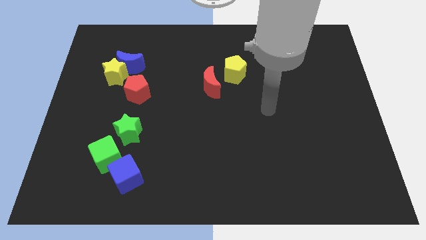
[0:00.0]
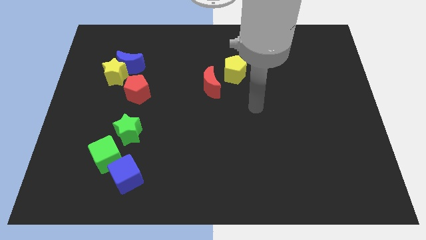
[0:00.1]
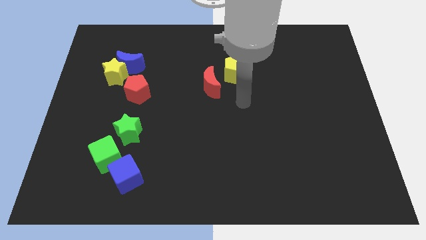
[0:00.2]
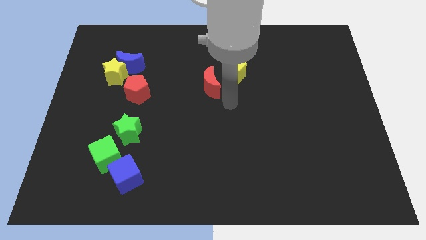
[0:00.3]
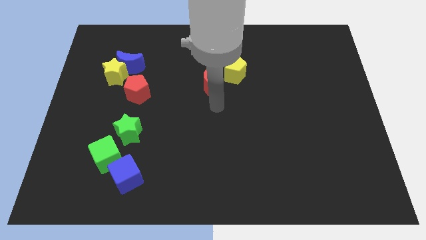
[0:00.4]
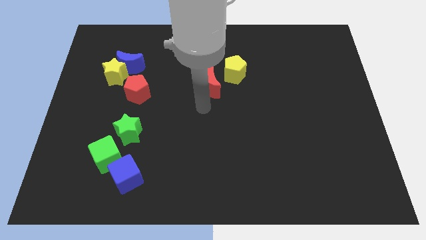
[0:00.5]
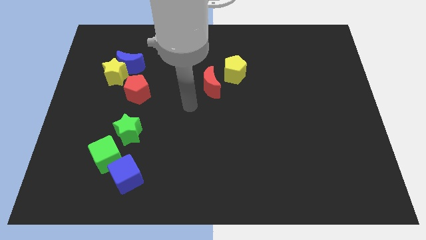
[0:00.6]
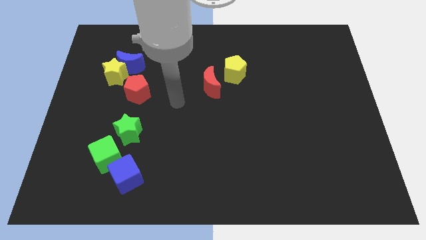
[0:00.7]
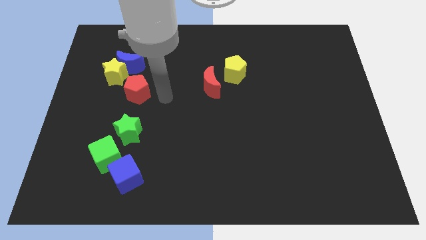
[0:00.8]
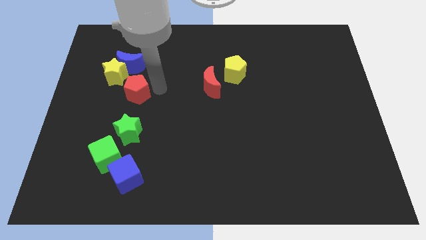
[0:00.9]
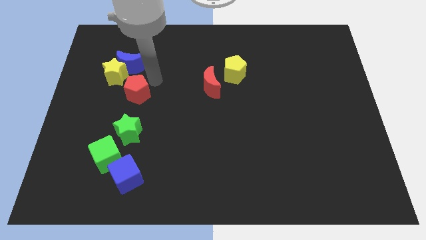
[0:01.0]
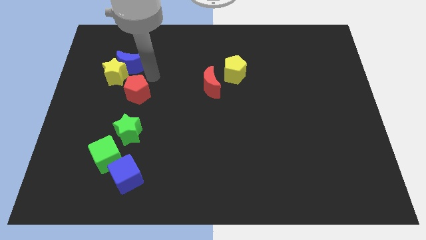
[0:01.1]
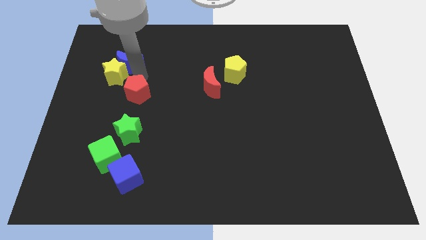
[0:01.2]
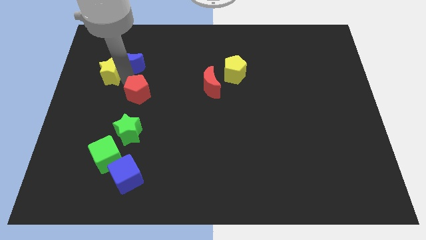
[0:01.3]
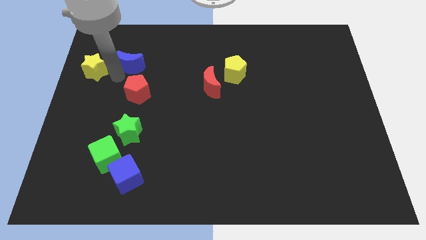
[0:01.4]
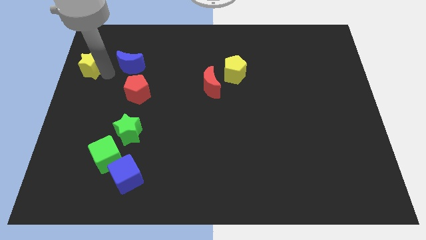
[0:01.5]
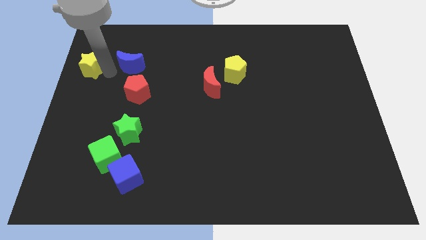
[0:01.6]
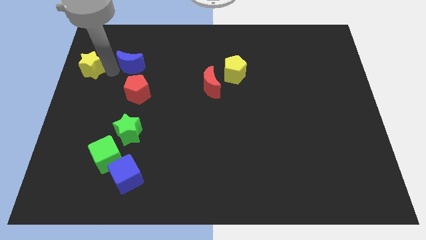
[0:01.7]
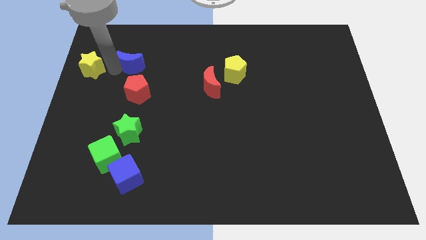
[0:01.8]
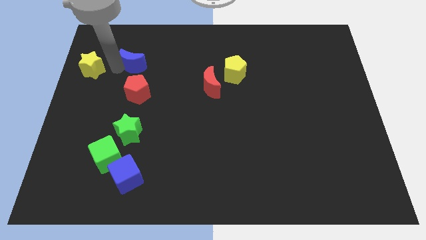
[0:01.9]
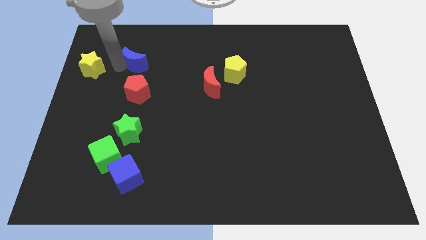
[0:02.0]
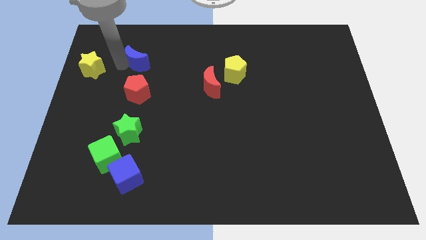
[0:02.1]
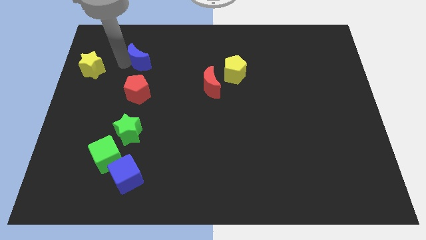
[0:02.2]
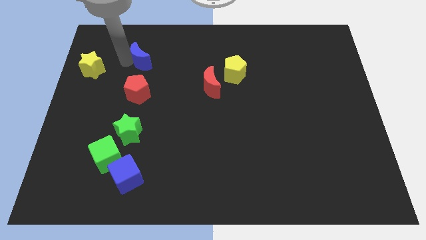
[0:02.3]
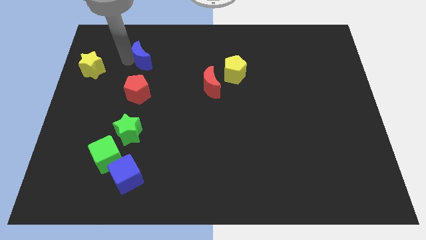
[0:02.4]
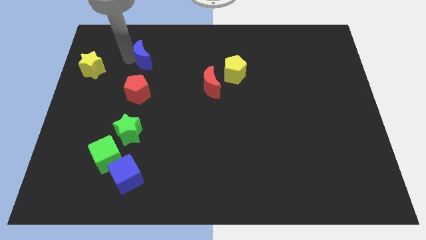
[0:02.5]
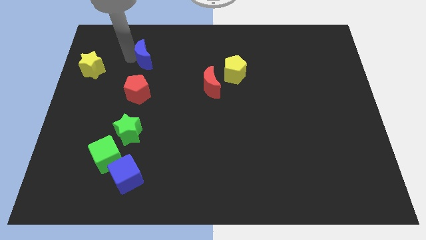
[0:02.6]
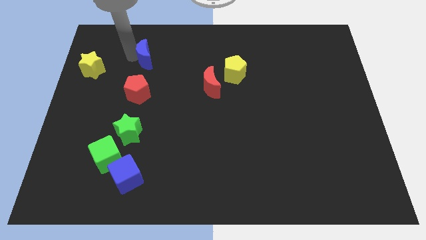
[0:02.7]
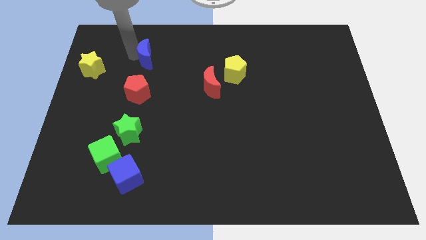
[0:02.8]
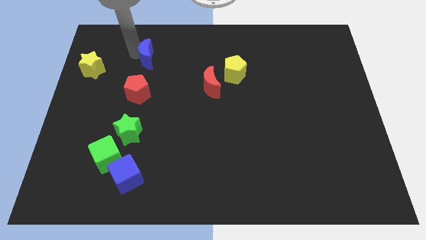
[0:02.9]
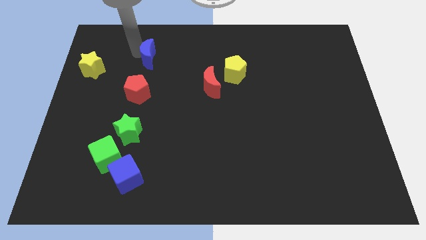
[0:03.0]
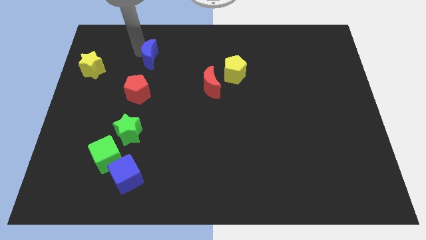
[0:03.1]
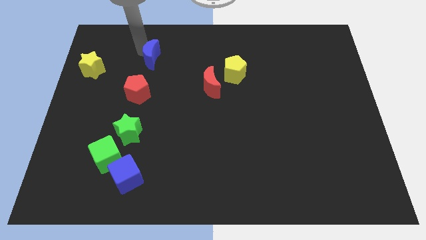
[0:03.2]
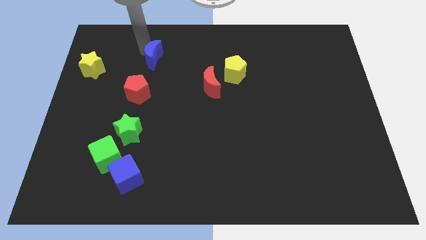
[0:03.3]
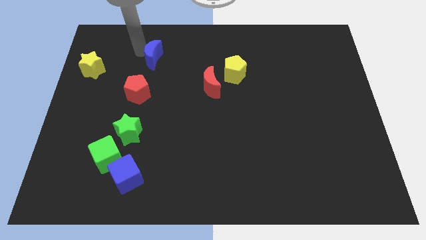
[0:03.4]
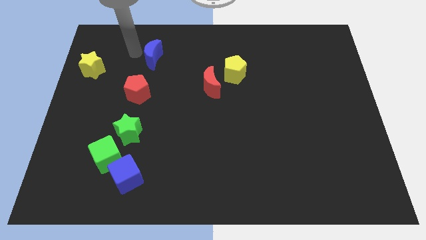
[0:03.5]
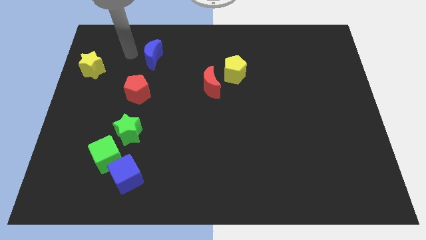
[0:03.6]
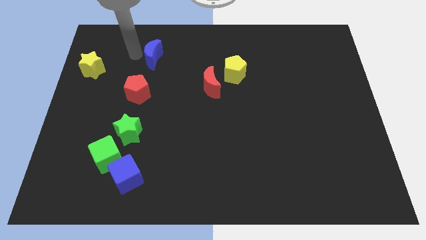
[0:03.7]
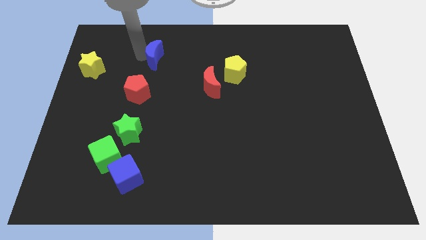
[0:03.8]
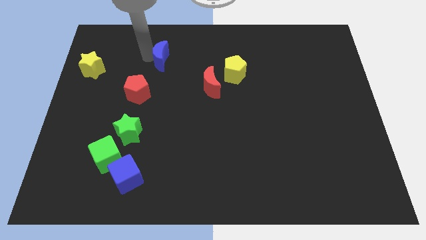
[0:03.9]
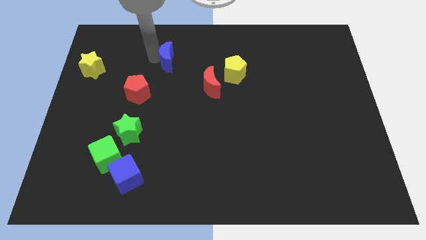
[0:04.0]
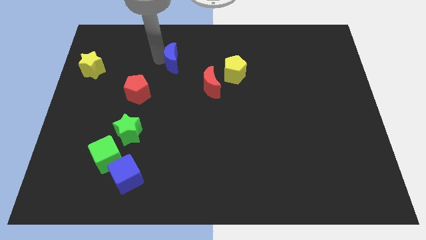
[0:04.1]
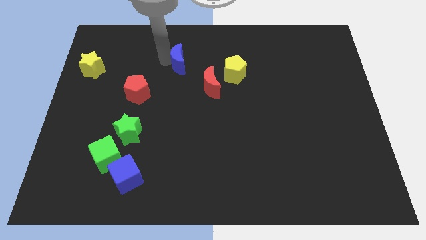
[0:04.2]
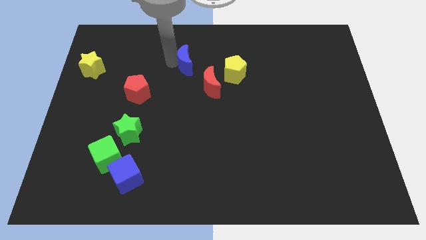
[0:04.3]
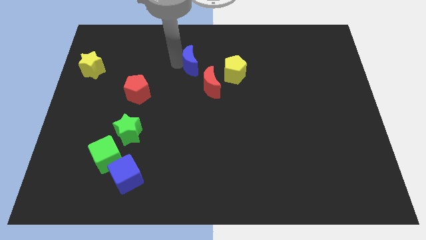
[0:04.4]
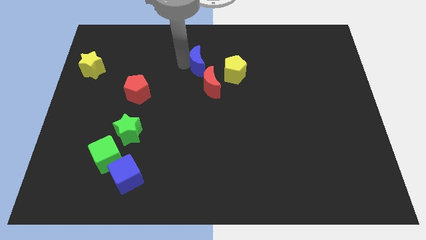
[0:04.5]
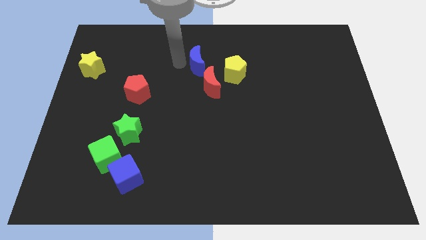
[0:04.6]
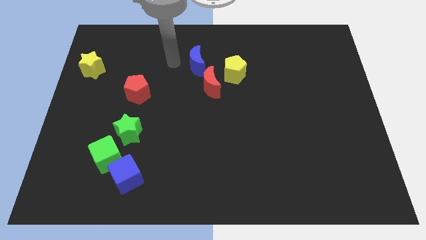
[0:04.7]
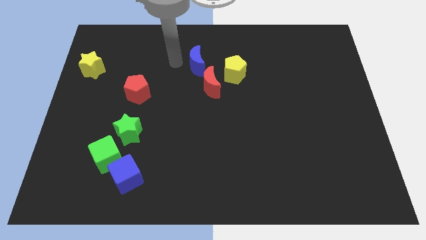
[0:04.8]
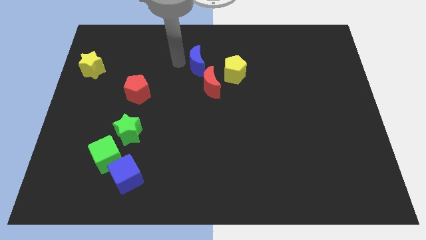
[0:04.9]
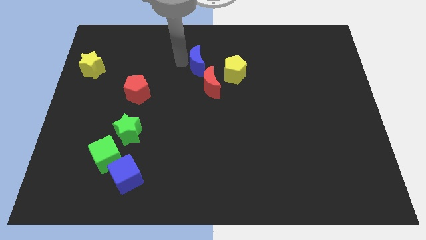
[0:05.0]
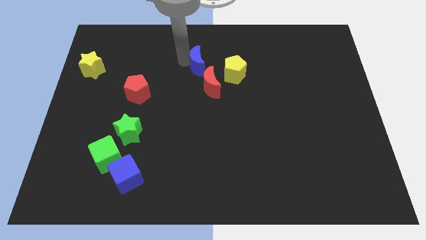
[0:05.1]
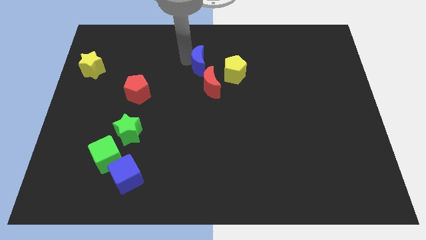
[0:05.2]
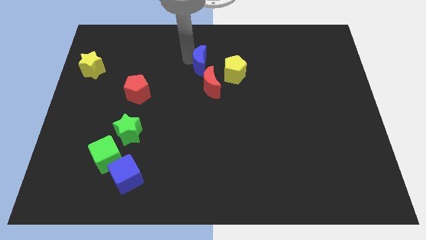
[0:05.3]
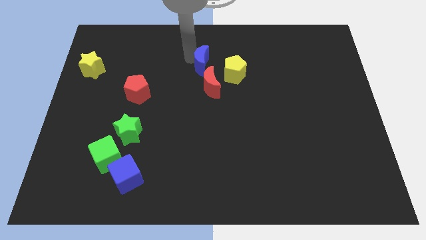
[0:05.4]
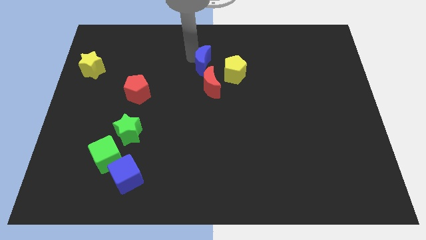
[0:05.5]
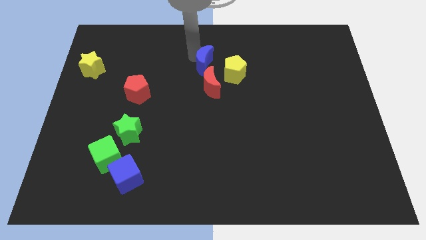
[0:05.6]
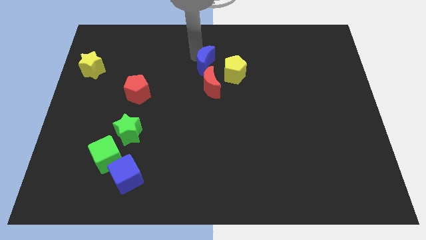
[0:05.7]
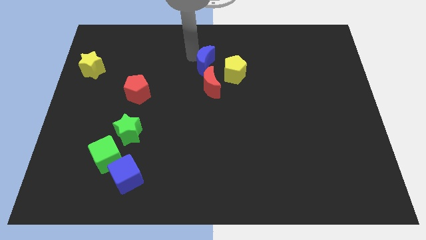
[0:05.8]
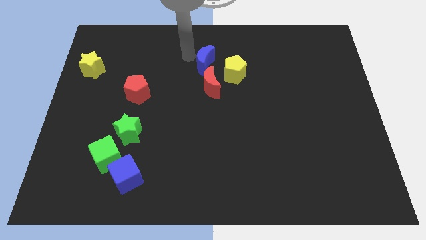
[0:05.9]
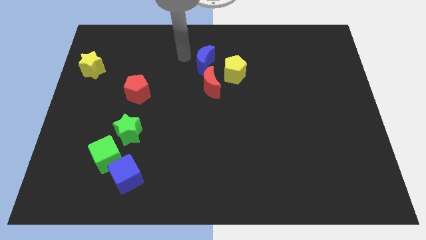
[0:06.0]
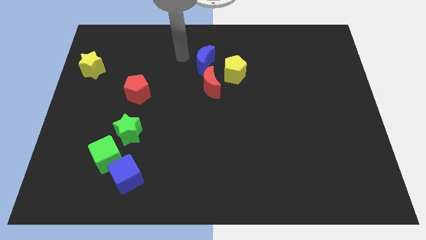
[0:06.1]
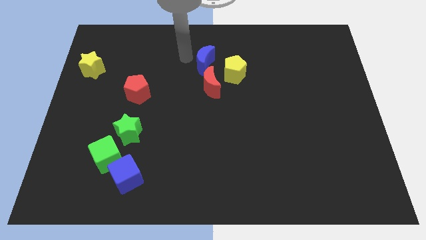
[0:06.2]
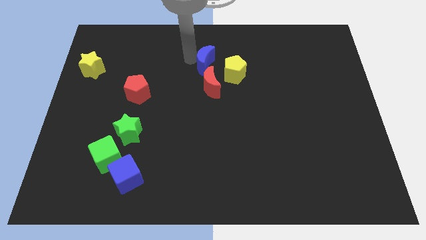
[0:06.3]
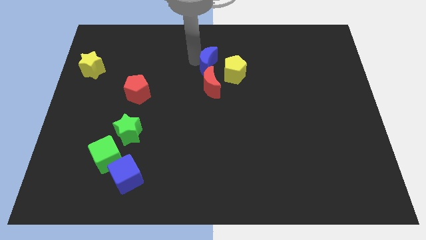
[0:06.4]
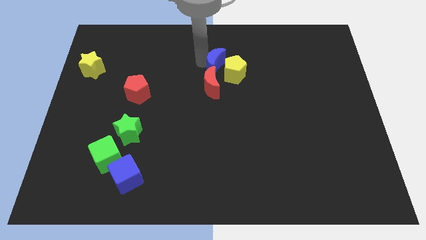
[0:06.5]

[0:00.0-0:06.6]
move the blue moon next to the yellow pentagon
